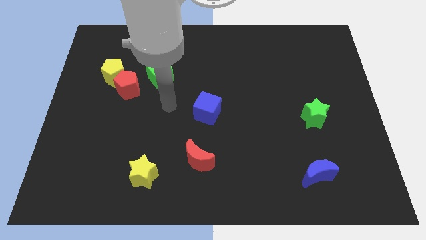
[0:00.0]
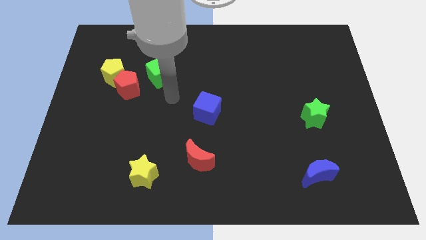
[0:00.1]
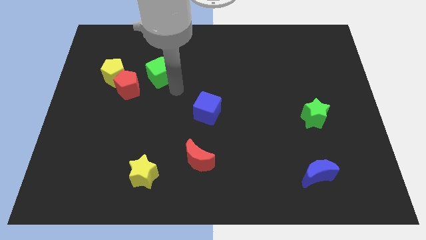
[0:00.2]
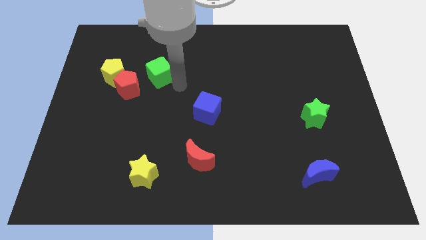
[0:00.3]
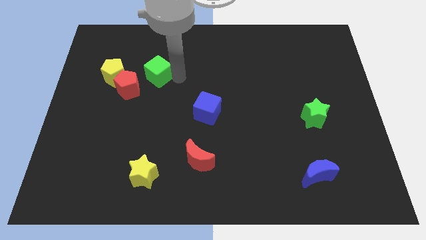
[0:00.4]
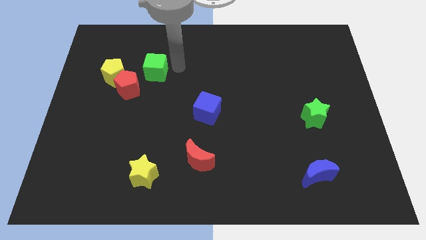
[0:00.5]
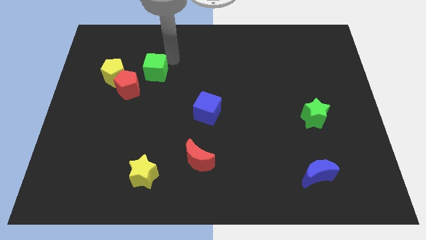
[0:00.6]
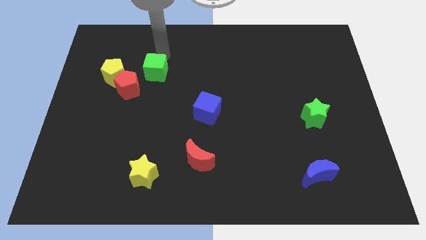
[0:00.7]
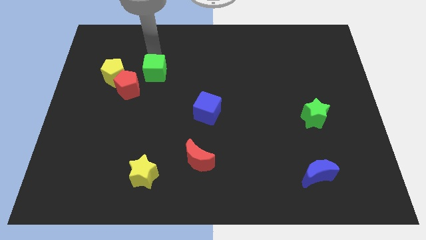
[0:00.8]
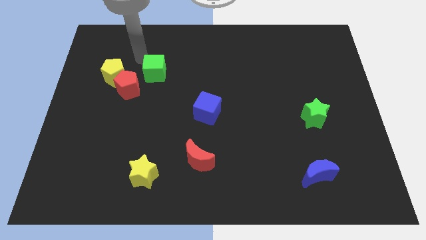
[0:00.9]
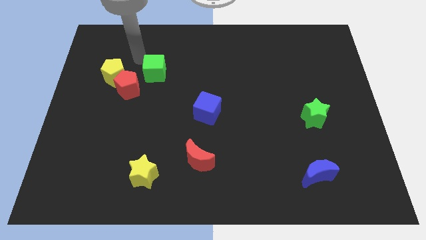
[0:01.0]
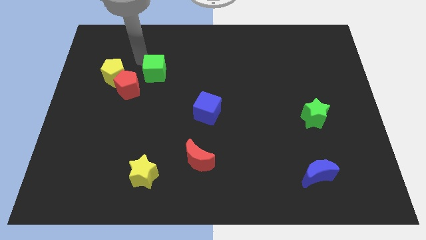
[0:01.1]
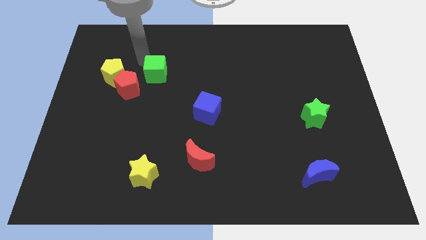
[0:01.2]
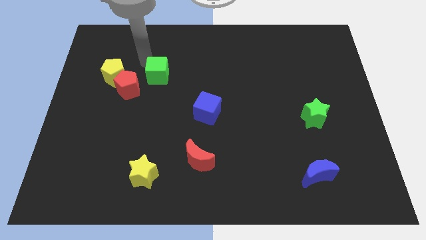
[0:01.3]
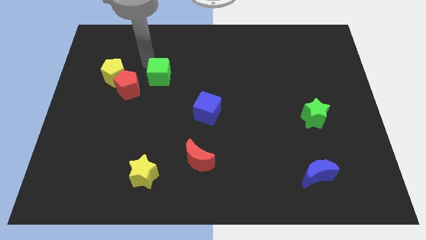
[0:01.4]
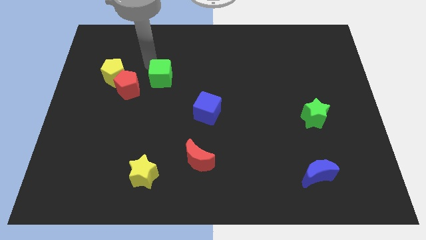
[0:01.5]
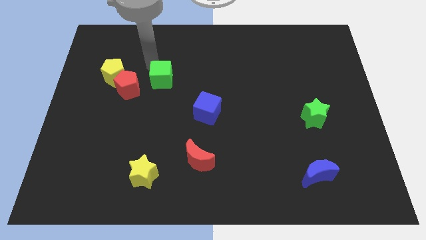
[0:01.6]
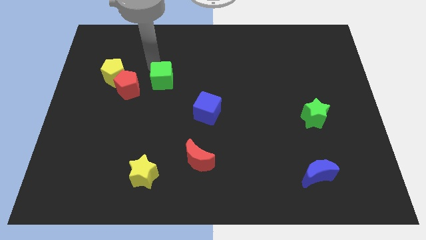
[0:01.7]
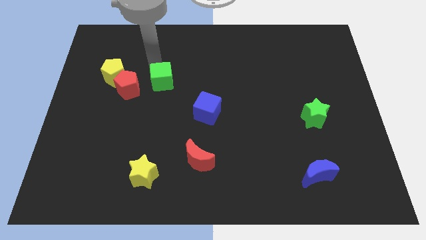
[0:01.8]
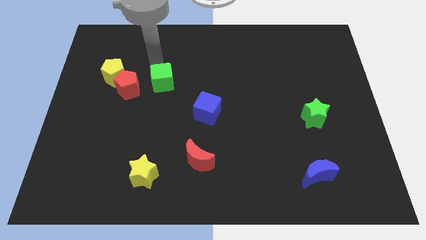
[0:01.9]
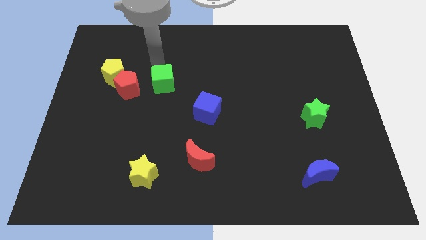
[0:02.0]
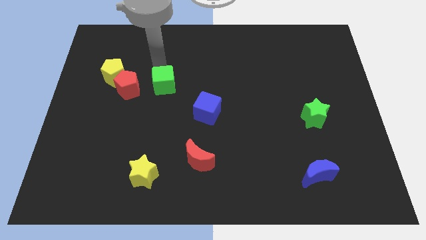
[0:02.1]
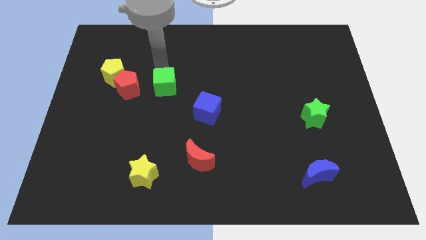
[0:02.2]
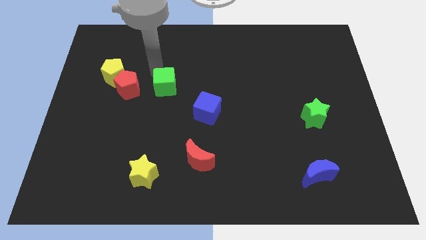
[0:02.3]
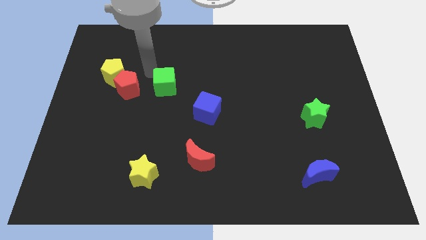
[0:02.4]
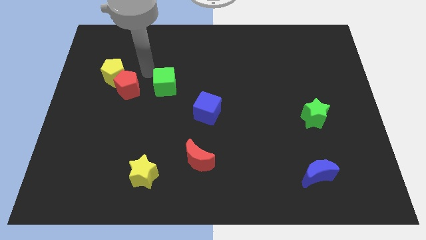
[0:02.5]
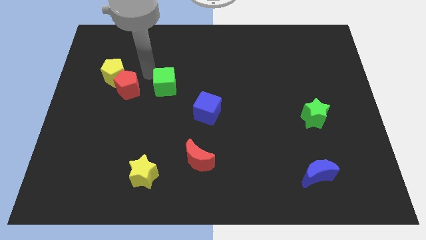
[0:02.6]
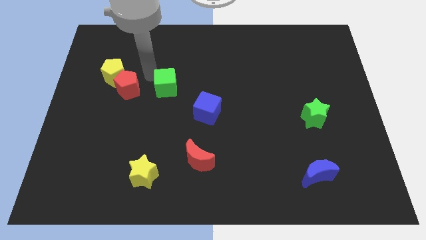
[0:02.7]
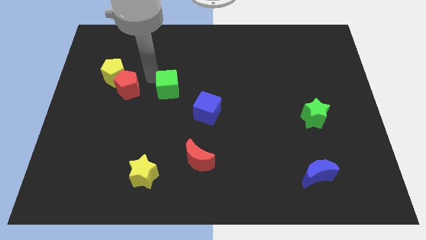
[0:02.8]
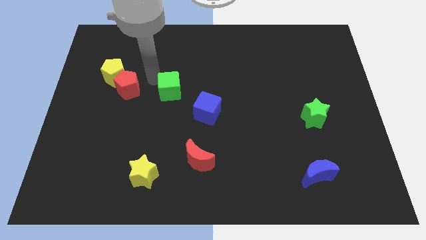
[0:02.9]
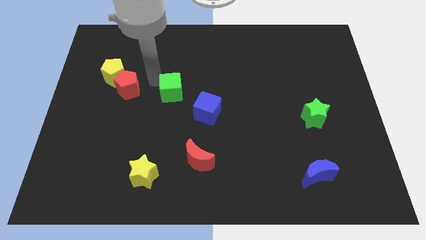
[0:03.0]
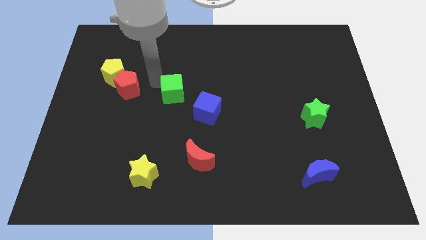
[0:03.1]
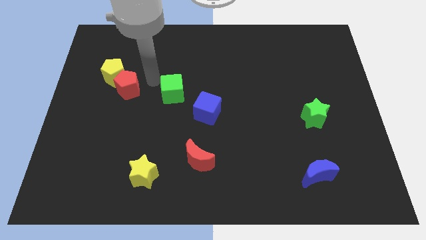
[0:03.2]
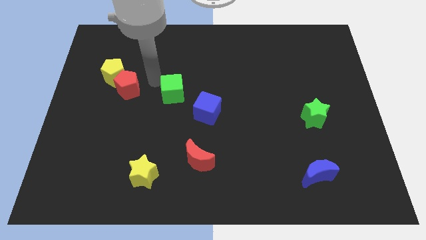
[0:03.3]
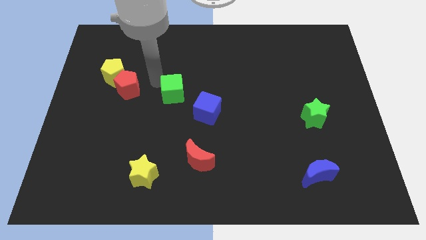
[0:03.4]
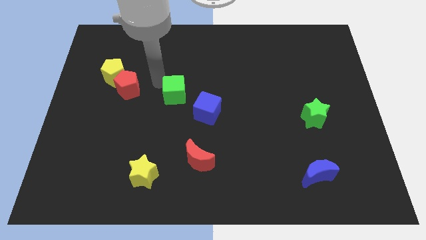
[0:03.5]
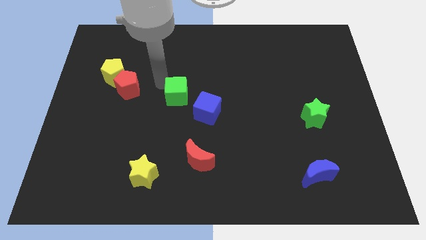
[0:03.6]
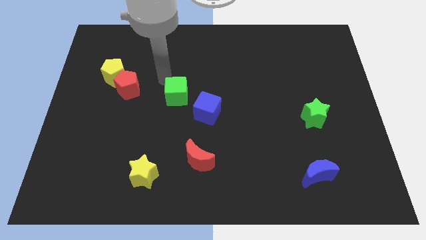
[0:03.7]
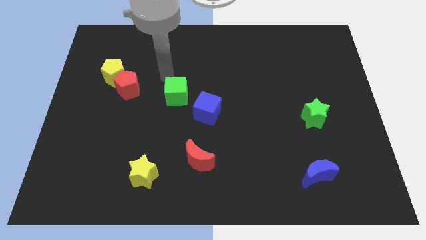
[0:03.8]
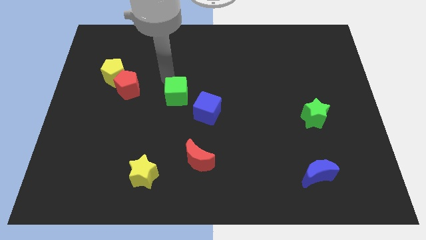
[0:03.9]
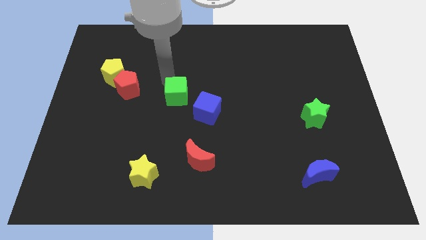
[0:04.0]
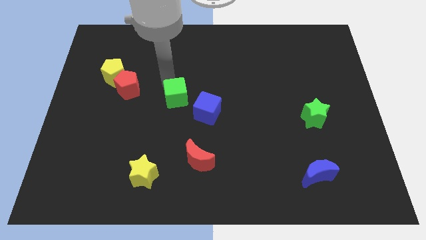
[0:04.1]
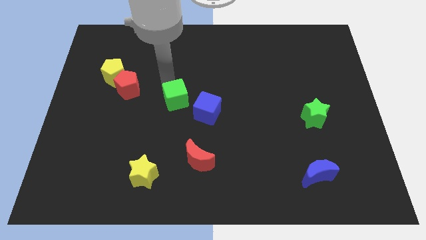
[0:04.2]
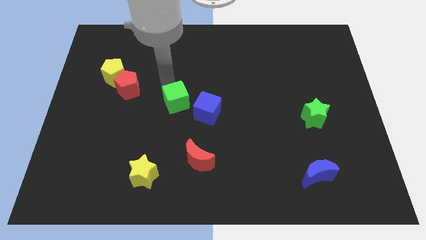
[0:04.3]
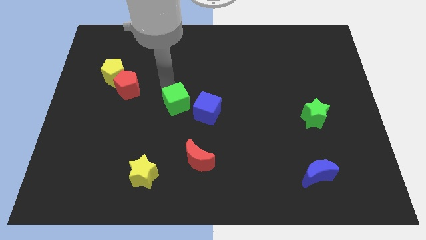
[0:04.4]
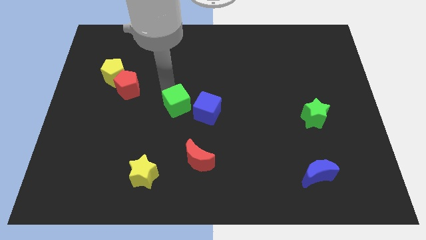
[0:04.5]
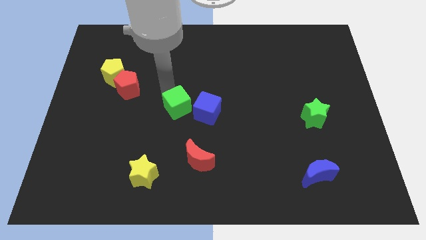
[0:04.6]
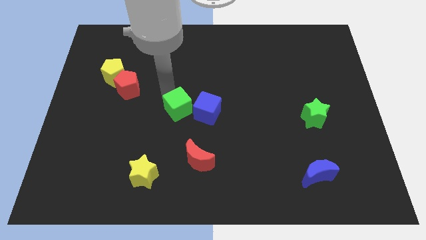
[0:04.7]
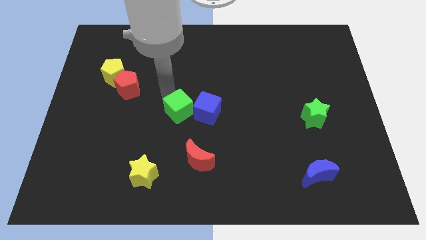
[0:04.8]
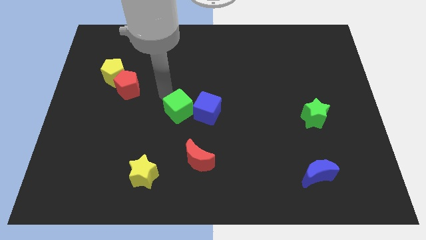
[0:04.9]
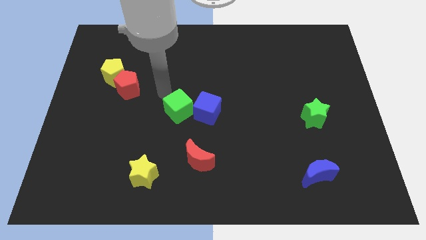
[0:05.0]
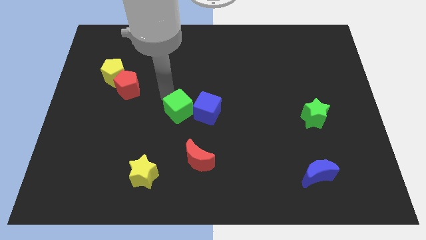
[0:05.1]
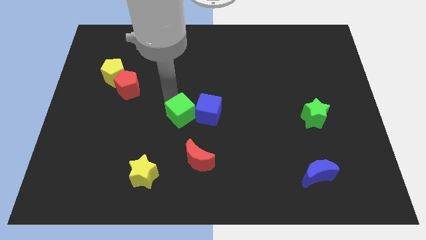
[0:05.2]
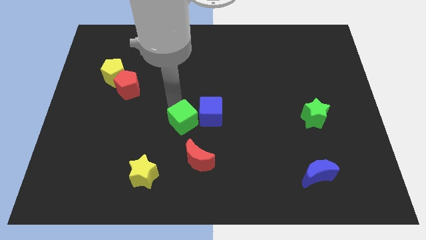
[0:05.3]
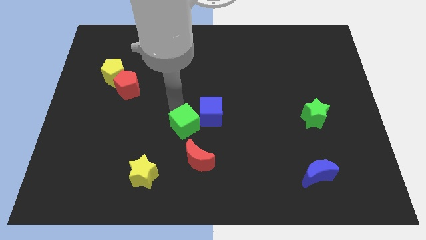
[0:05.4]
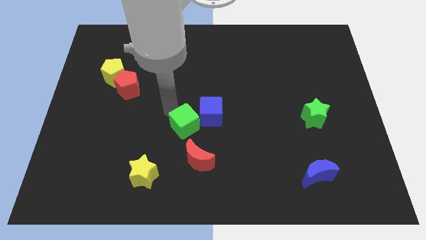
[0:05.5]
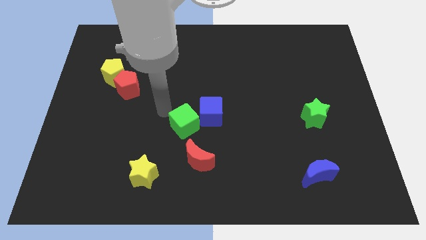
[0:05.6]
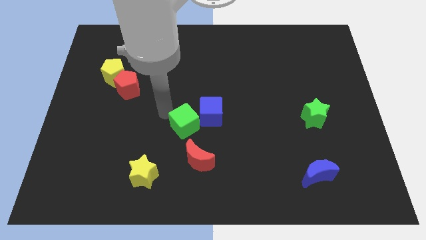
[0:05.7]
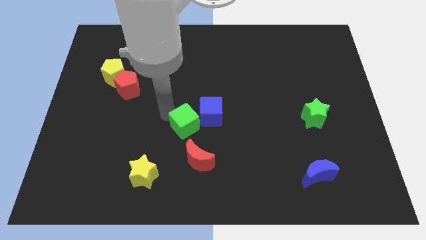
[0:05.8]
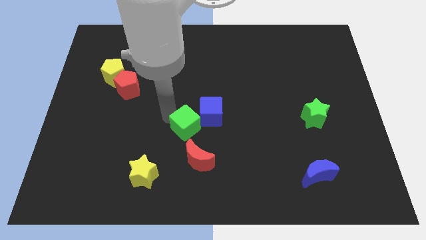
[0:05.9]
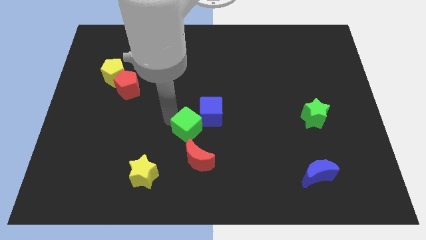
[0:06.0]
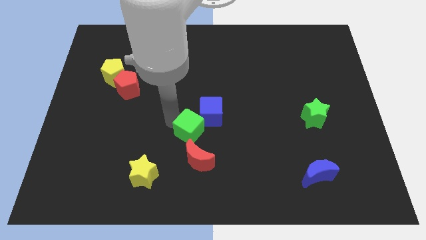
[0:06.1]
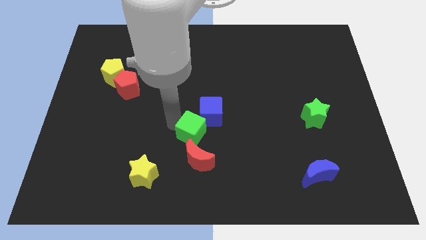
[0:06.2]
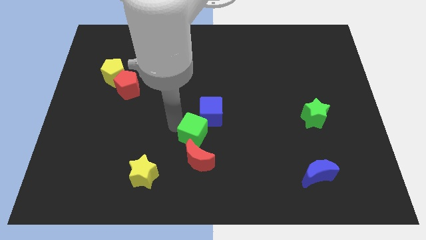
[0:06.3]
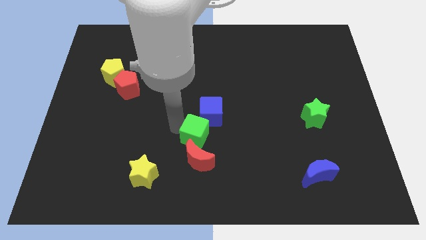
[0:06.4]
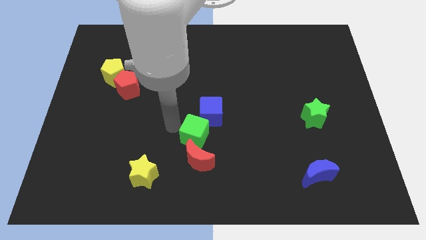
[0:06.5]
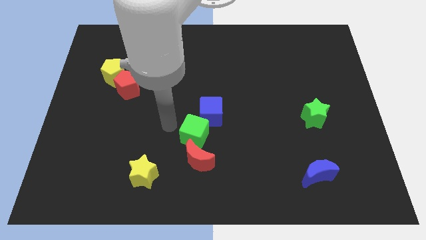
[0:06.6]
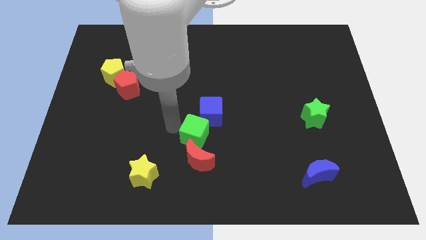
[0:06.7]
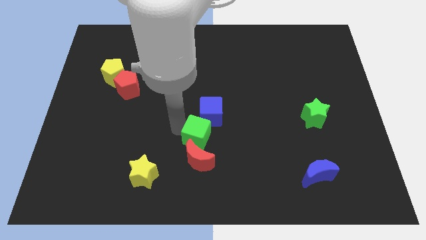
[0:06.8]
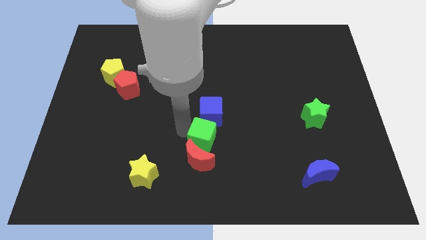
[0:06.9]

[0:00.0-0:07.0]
push the green cube down and to the right diagonally

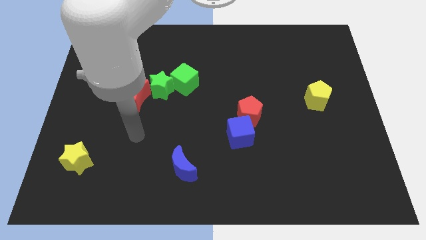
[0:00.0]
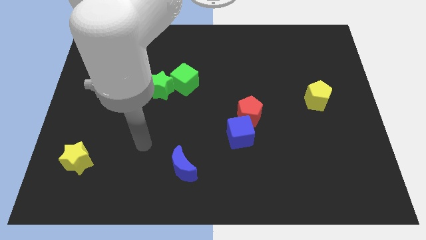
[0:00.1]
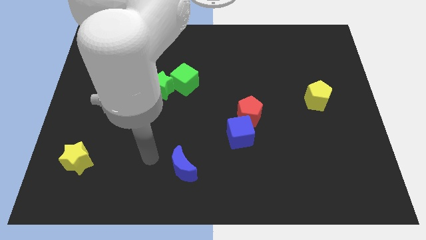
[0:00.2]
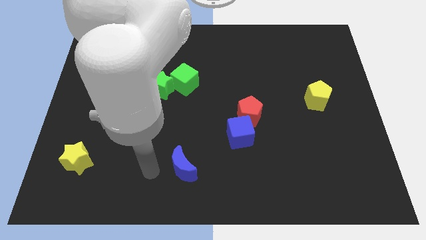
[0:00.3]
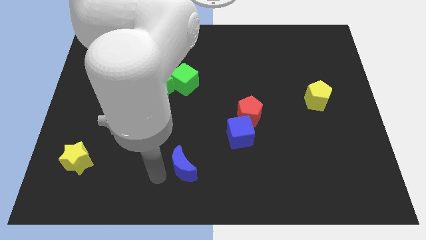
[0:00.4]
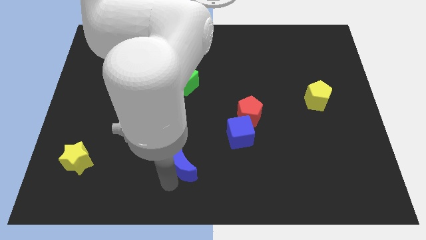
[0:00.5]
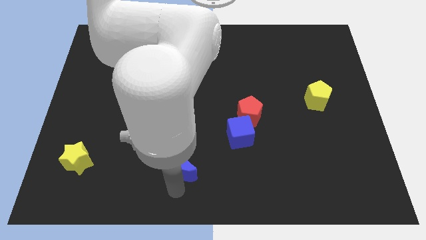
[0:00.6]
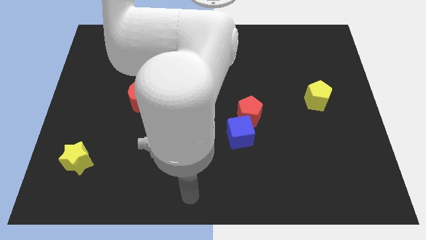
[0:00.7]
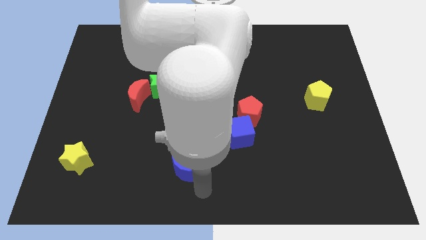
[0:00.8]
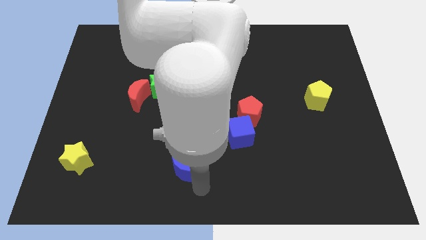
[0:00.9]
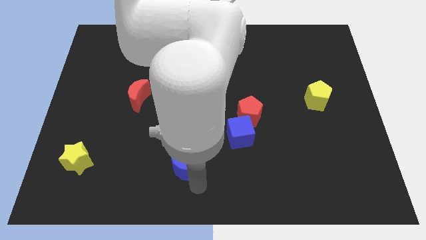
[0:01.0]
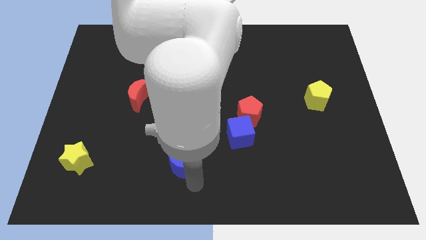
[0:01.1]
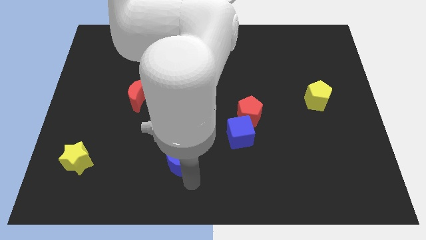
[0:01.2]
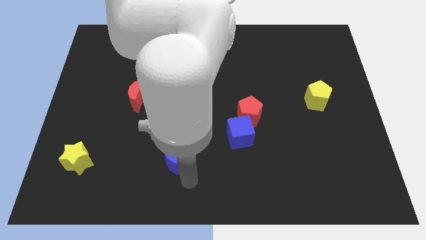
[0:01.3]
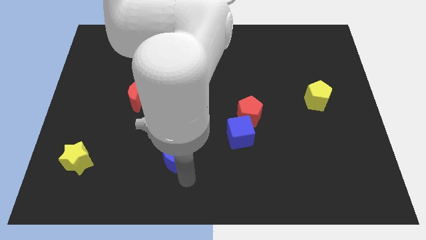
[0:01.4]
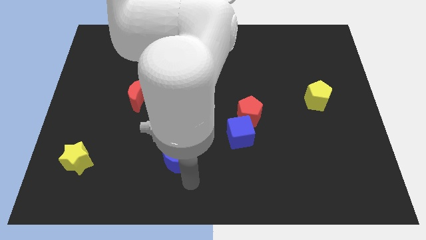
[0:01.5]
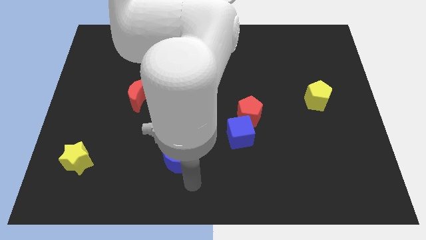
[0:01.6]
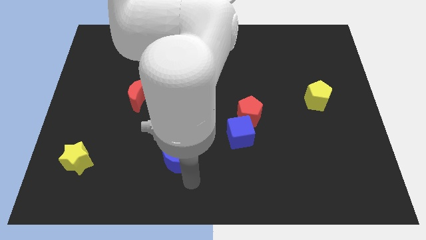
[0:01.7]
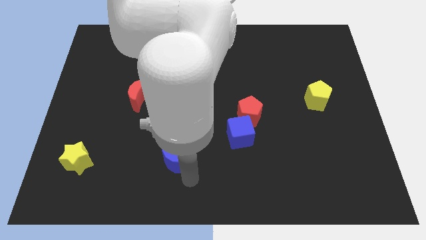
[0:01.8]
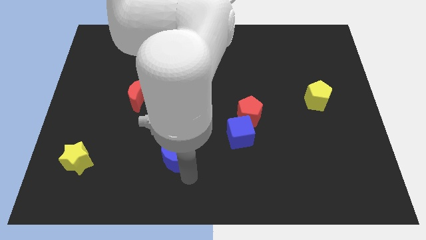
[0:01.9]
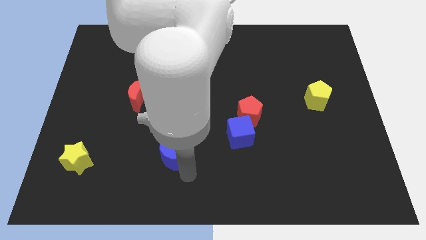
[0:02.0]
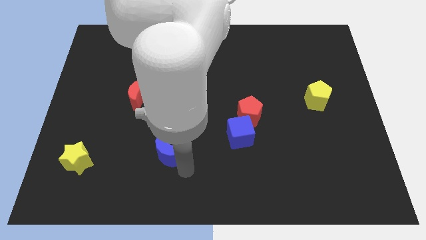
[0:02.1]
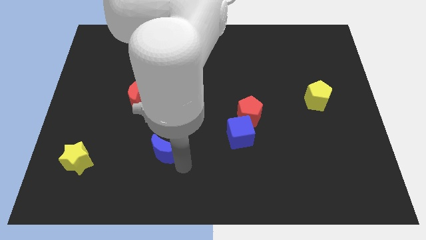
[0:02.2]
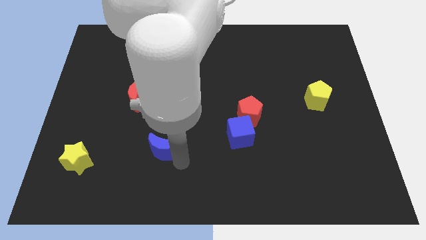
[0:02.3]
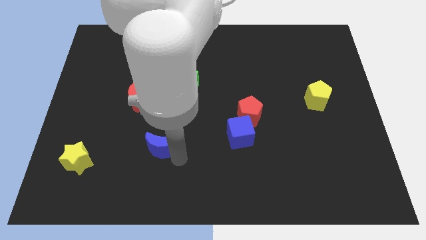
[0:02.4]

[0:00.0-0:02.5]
slide the blue moon somewhat diagonally up and to the left
